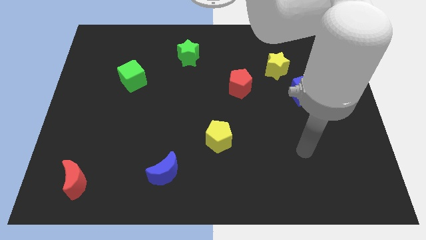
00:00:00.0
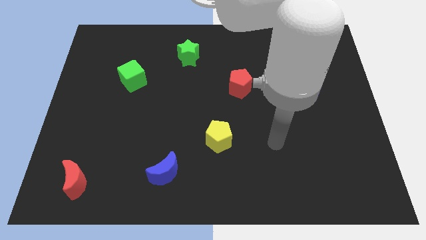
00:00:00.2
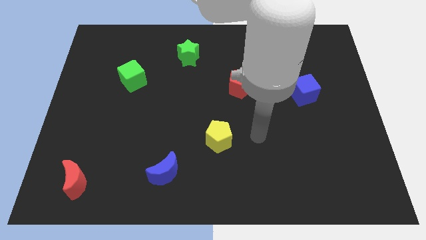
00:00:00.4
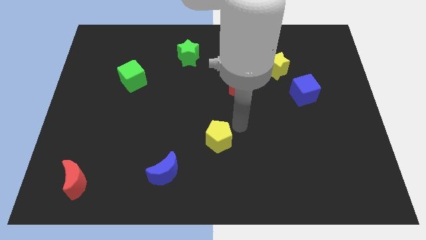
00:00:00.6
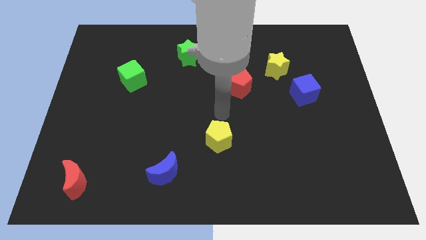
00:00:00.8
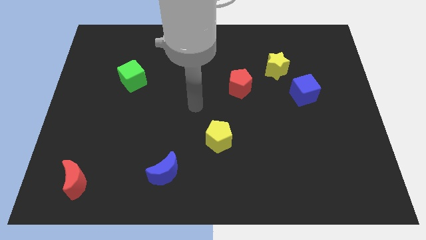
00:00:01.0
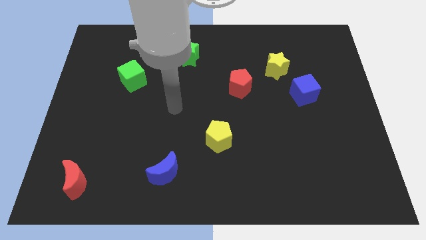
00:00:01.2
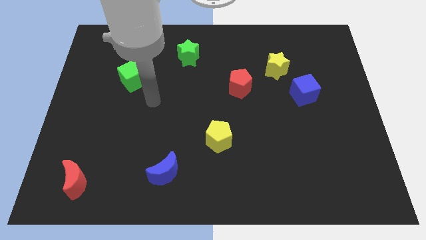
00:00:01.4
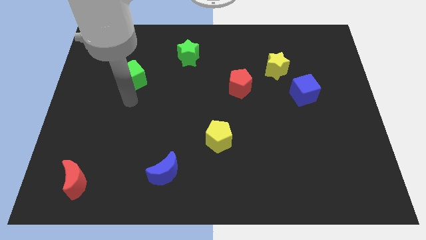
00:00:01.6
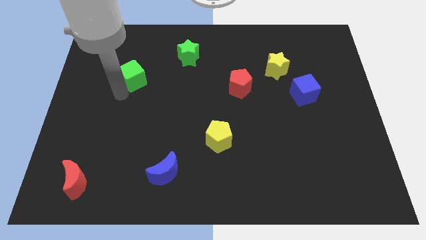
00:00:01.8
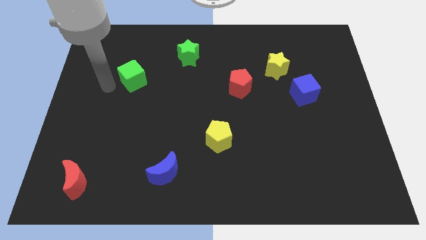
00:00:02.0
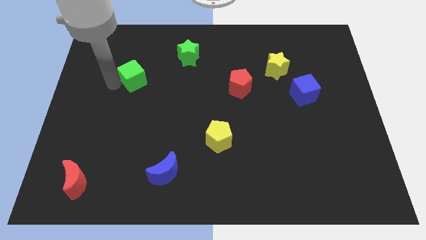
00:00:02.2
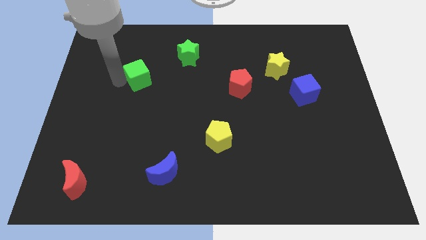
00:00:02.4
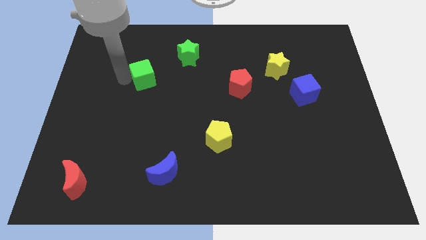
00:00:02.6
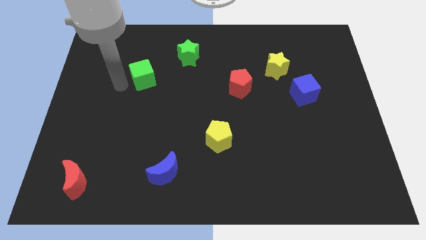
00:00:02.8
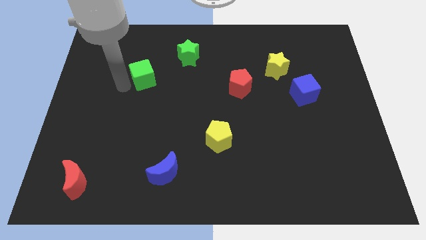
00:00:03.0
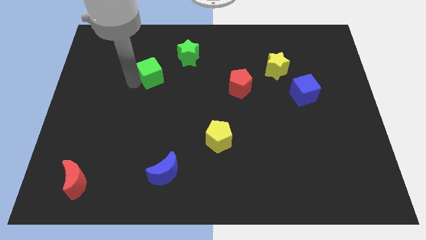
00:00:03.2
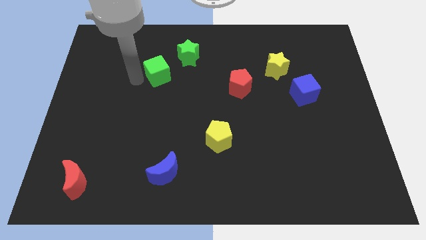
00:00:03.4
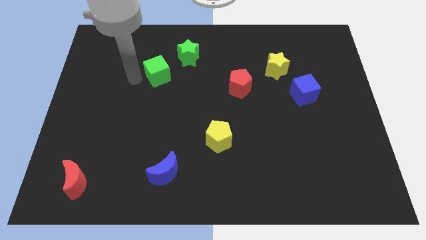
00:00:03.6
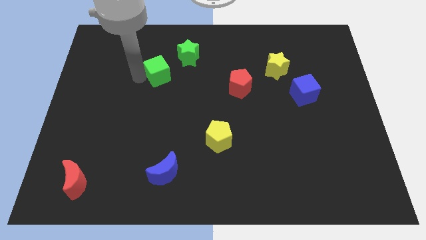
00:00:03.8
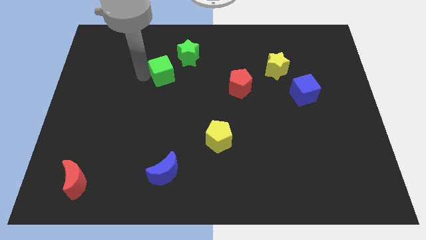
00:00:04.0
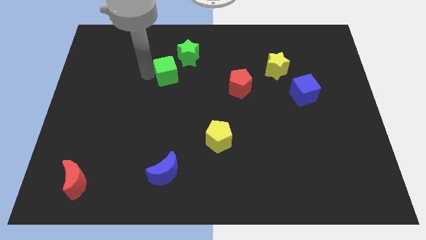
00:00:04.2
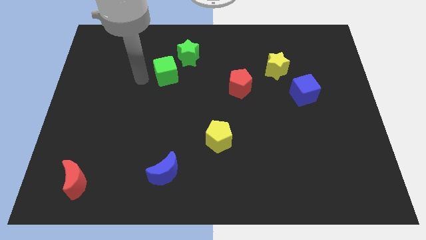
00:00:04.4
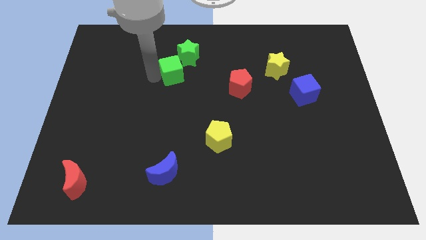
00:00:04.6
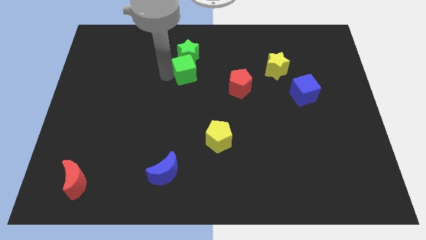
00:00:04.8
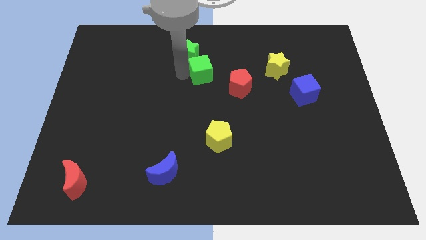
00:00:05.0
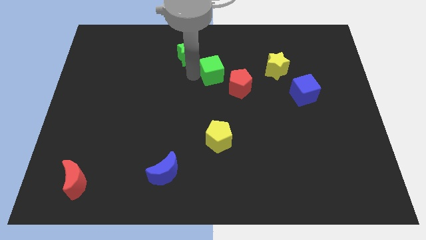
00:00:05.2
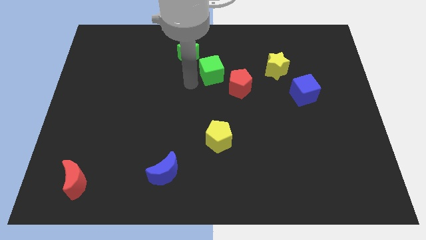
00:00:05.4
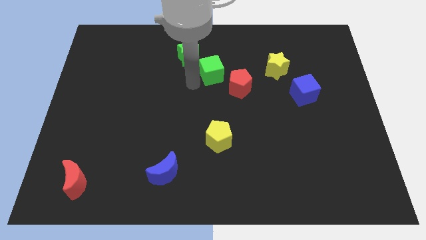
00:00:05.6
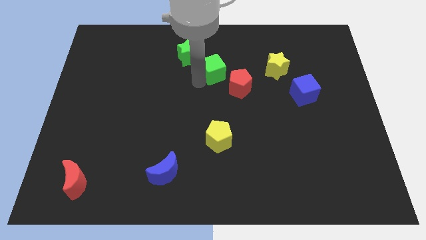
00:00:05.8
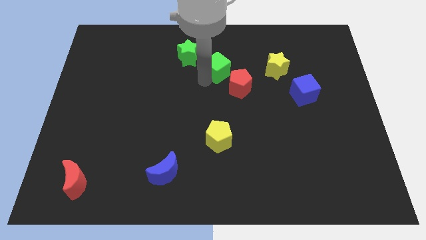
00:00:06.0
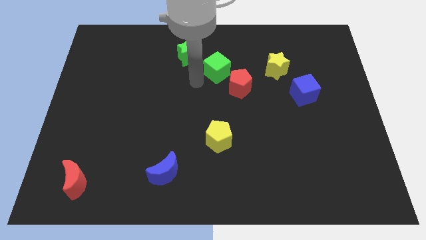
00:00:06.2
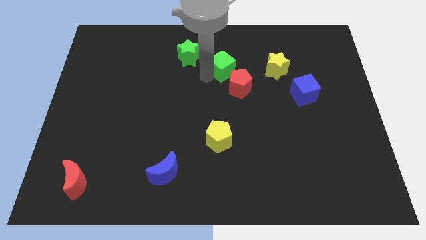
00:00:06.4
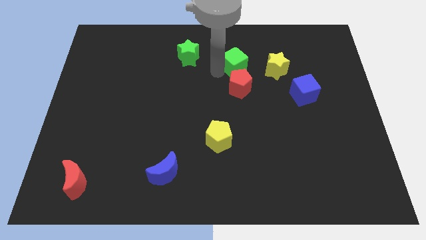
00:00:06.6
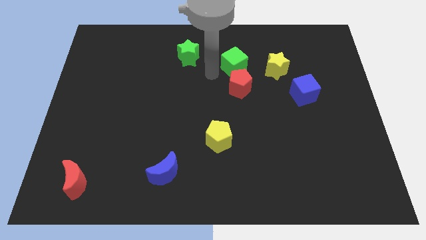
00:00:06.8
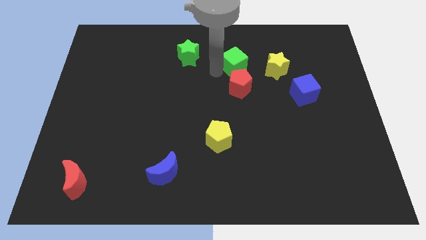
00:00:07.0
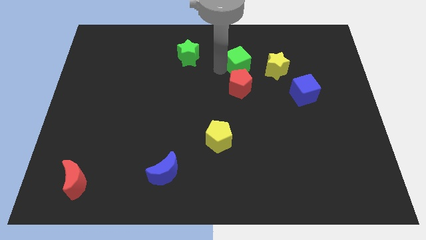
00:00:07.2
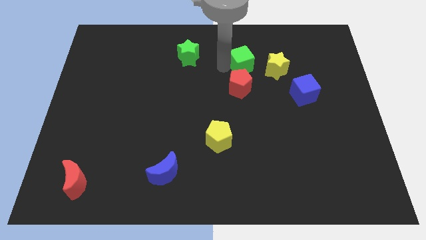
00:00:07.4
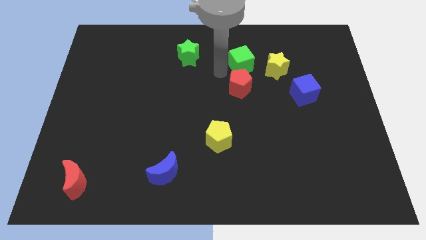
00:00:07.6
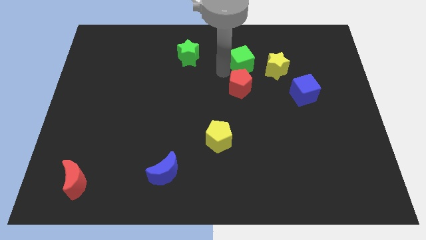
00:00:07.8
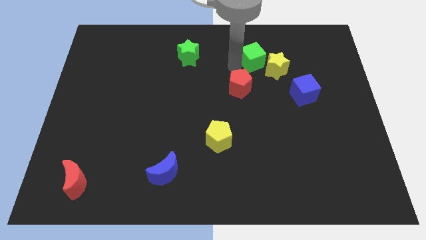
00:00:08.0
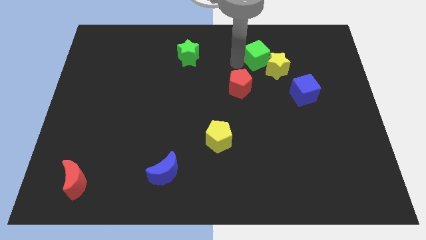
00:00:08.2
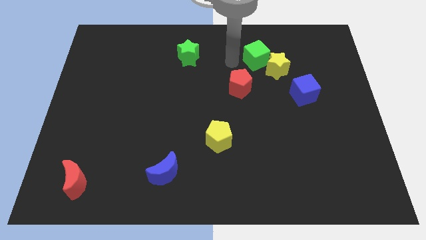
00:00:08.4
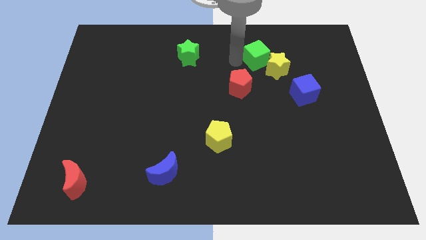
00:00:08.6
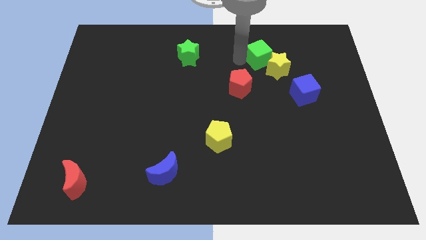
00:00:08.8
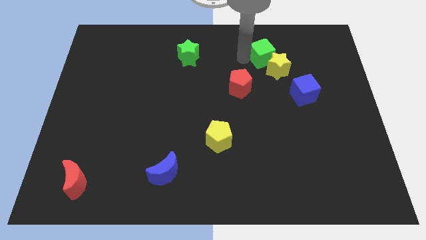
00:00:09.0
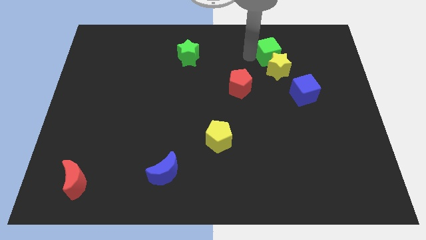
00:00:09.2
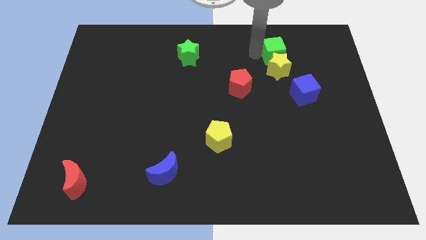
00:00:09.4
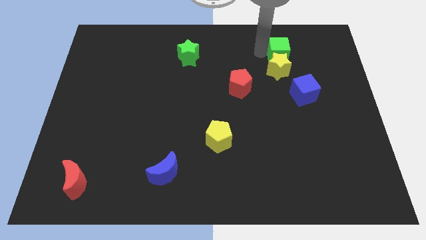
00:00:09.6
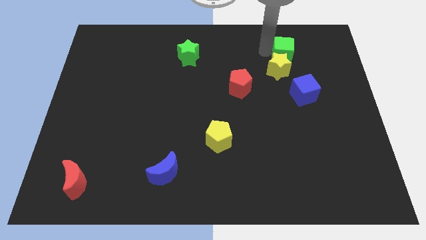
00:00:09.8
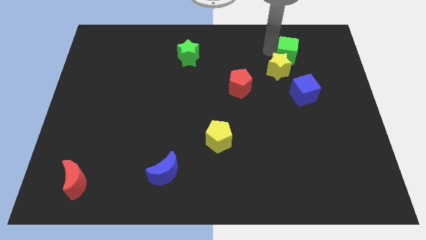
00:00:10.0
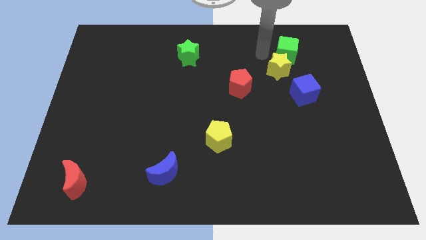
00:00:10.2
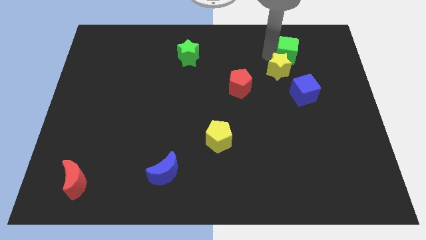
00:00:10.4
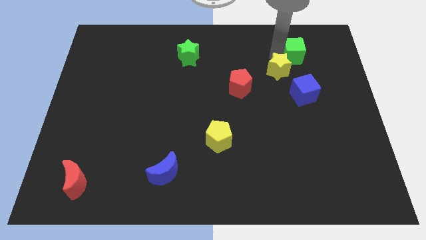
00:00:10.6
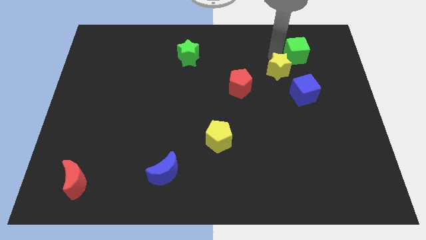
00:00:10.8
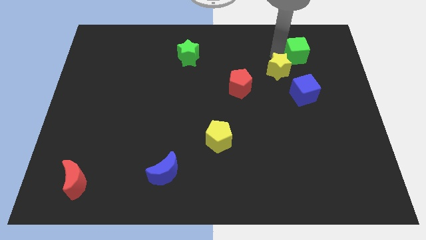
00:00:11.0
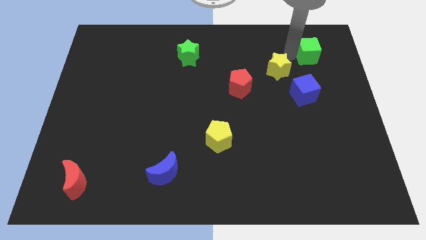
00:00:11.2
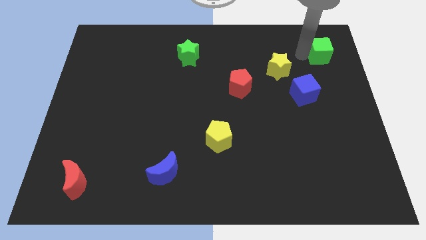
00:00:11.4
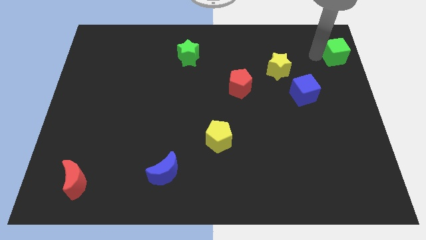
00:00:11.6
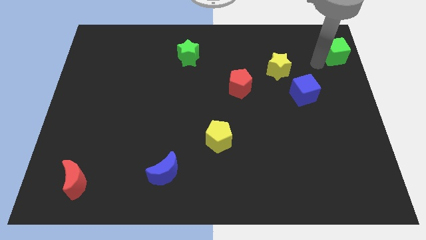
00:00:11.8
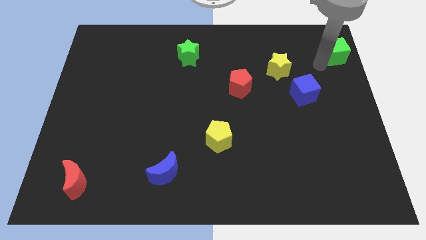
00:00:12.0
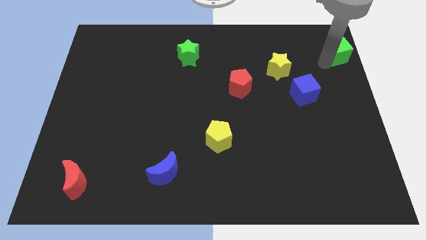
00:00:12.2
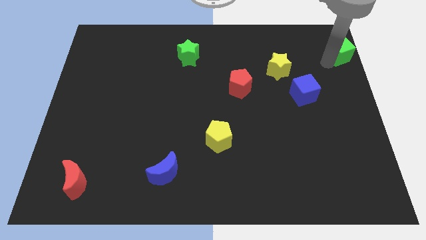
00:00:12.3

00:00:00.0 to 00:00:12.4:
slide the green cube to the upper right corner

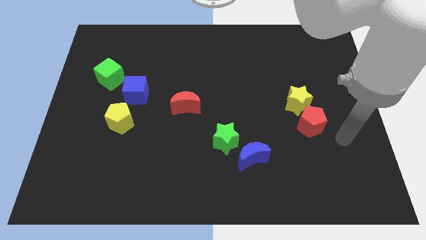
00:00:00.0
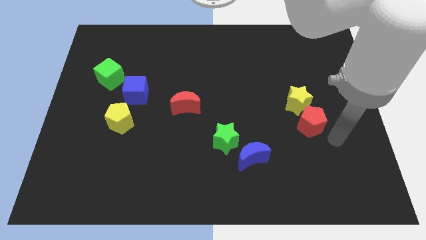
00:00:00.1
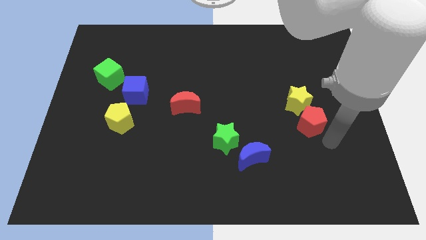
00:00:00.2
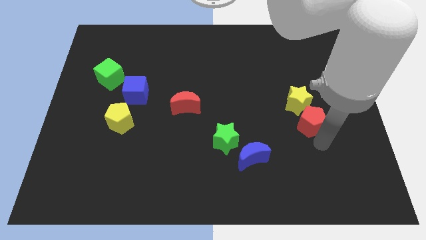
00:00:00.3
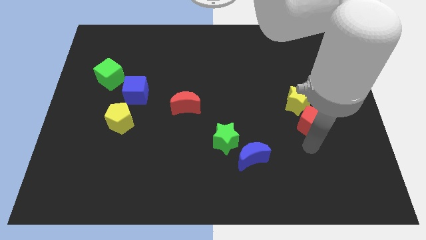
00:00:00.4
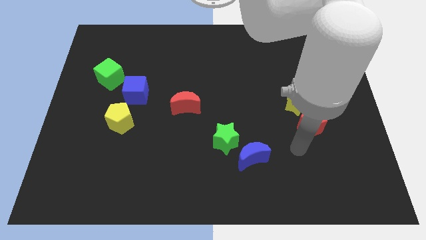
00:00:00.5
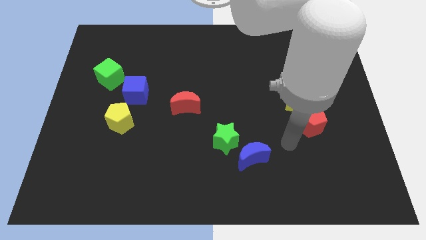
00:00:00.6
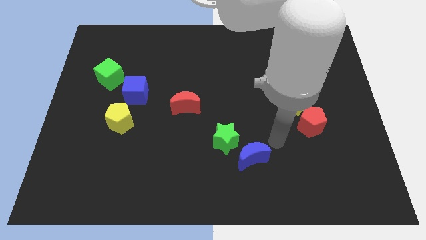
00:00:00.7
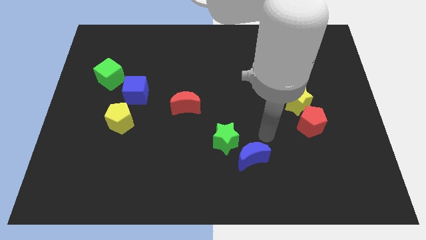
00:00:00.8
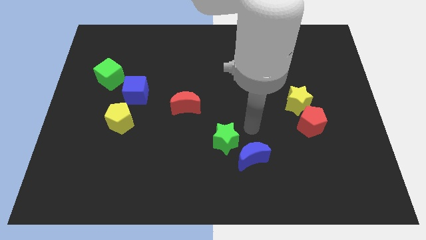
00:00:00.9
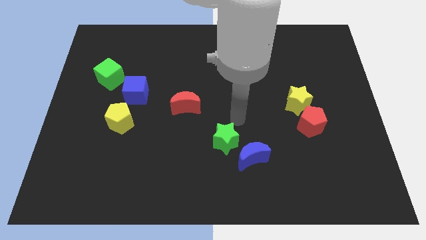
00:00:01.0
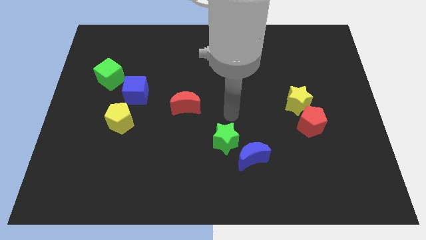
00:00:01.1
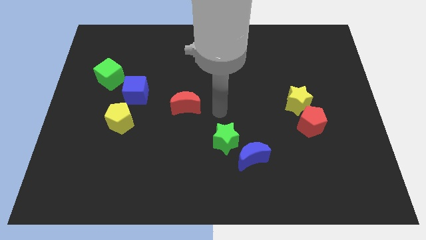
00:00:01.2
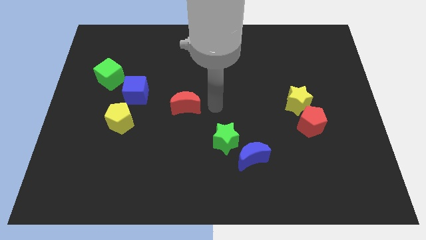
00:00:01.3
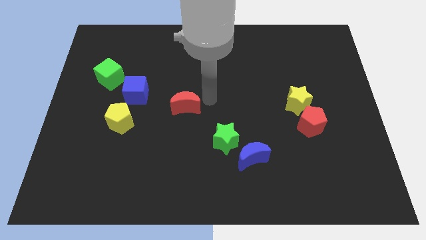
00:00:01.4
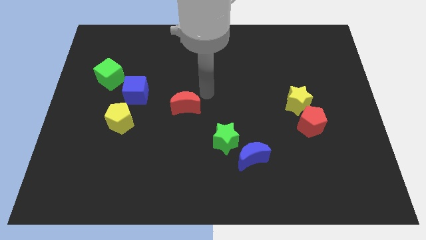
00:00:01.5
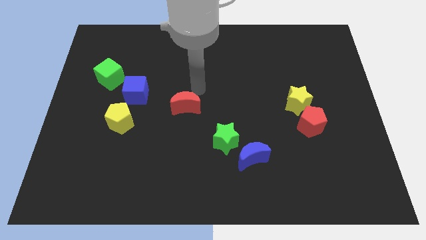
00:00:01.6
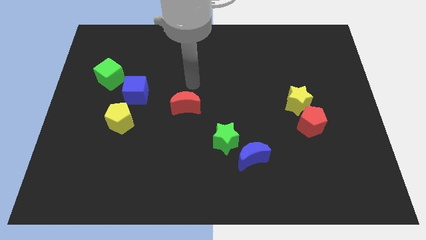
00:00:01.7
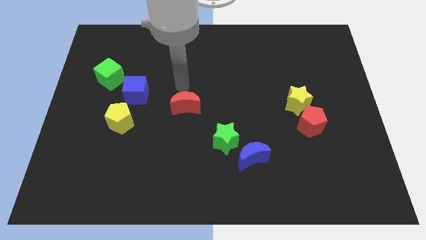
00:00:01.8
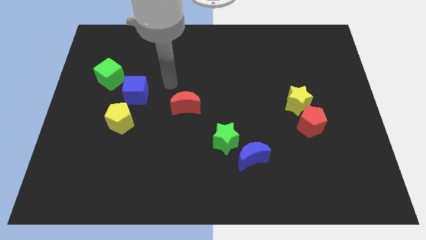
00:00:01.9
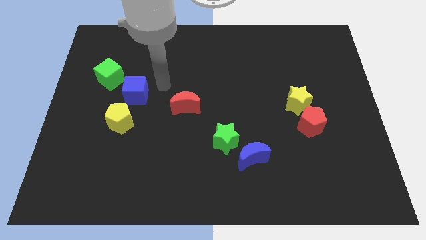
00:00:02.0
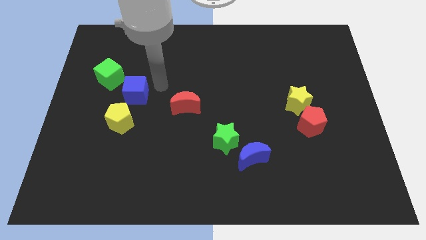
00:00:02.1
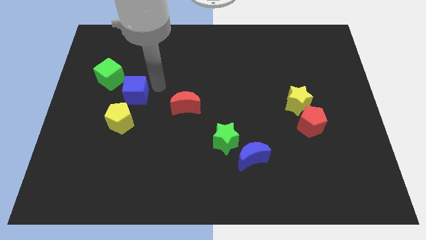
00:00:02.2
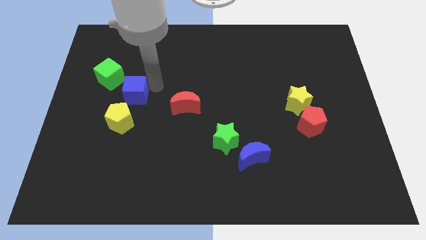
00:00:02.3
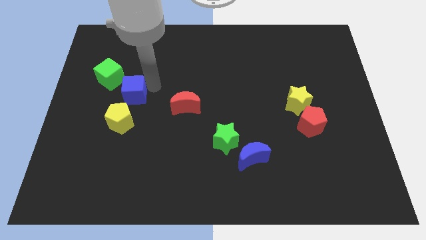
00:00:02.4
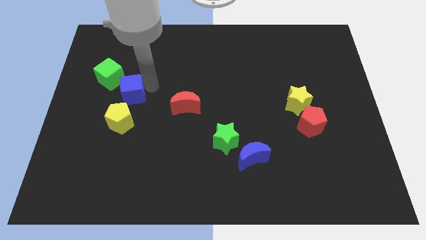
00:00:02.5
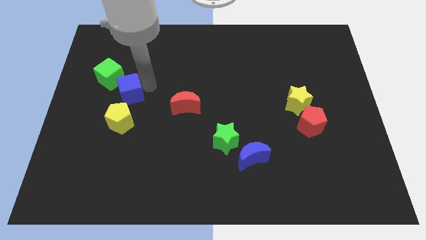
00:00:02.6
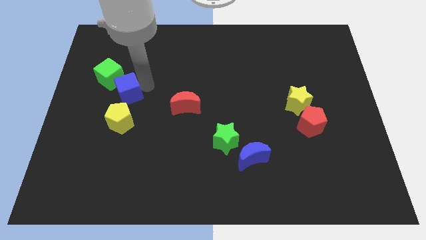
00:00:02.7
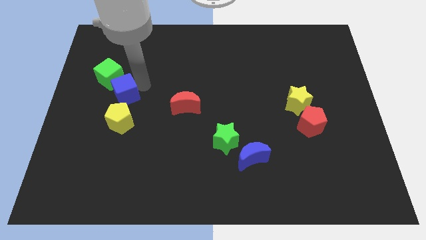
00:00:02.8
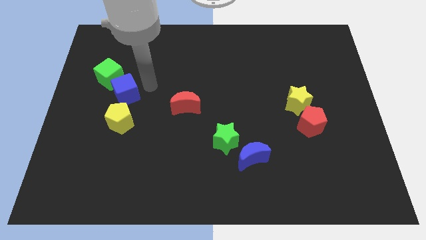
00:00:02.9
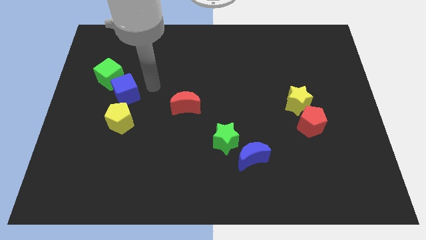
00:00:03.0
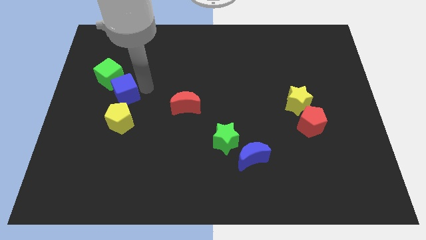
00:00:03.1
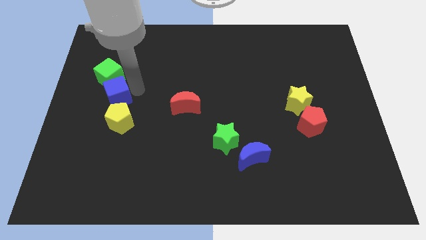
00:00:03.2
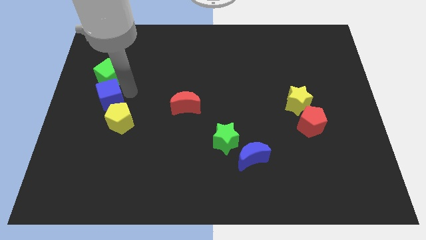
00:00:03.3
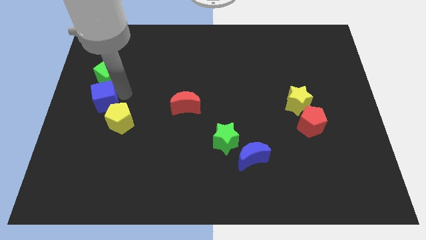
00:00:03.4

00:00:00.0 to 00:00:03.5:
put the blue cube to the center left
